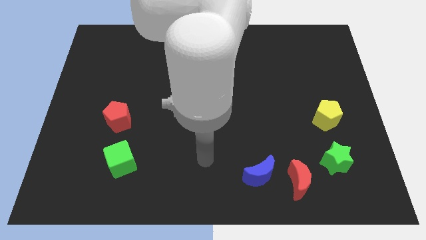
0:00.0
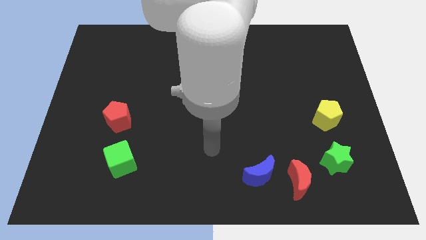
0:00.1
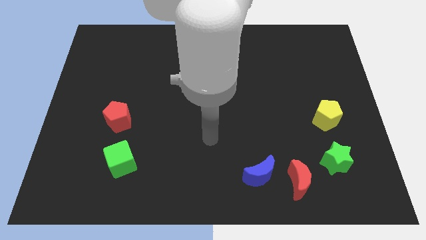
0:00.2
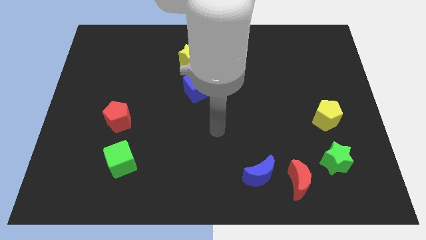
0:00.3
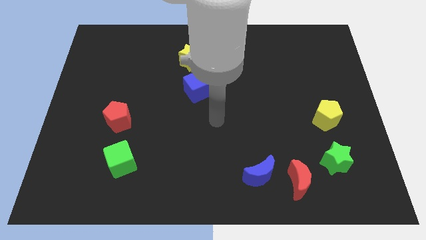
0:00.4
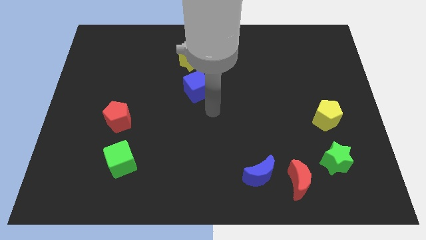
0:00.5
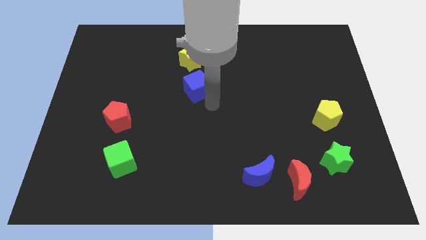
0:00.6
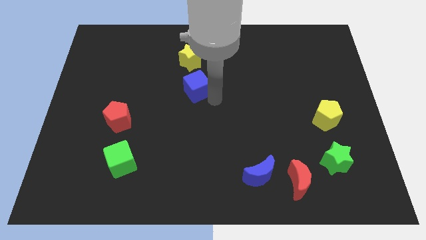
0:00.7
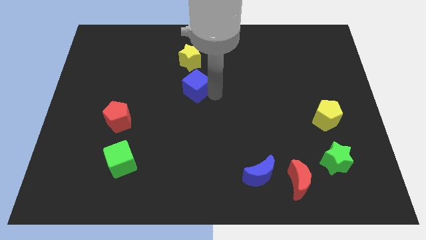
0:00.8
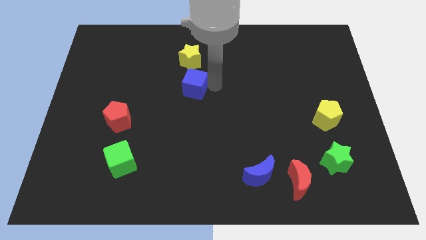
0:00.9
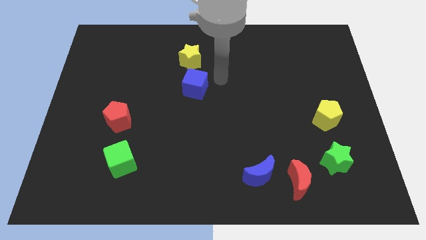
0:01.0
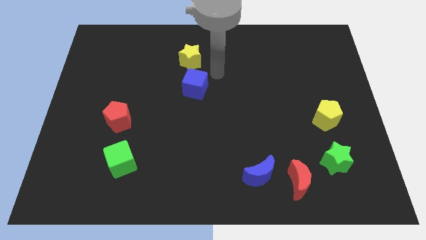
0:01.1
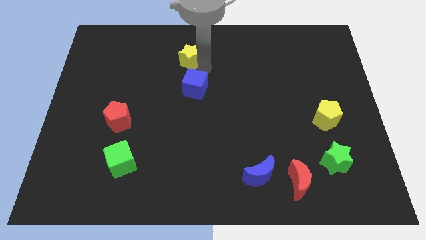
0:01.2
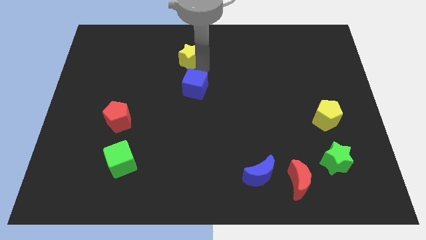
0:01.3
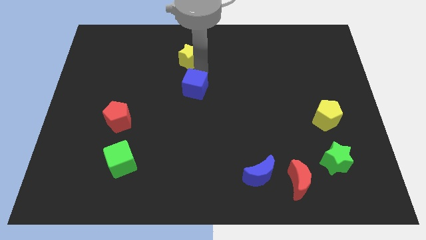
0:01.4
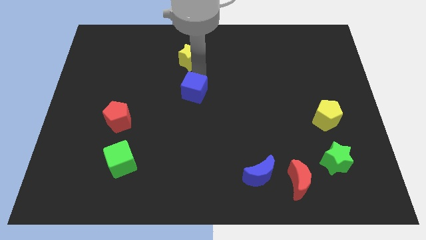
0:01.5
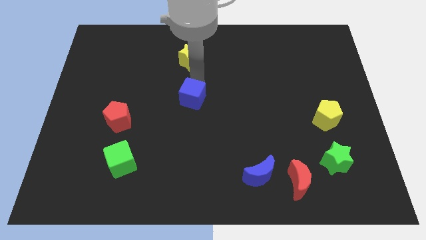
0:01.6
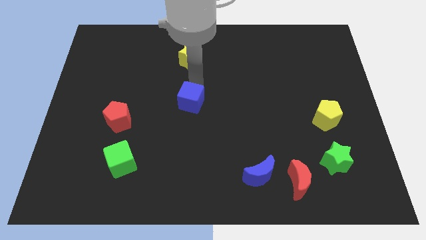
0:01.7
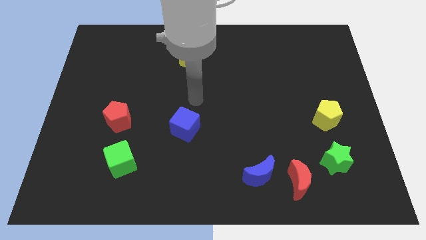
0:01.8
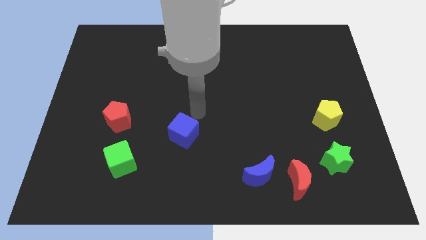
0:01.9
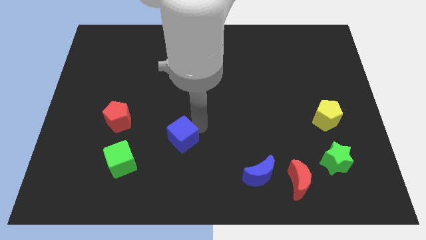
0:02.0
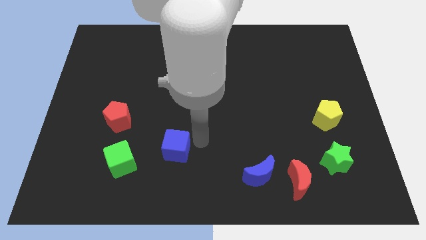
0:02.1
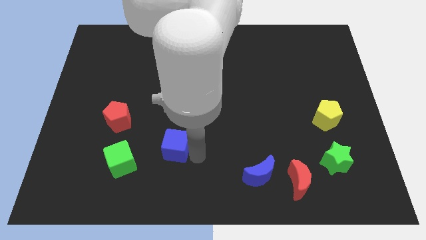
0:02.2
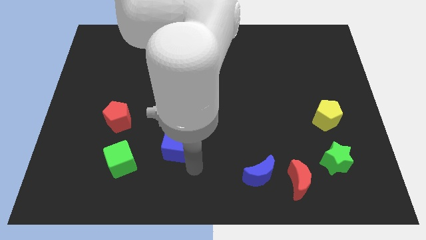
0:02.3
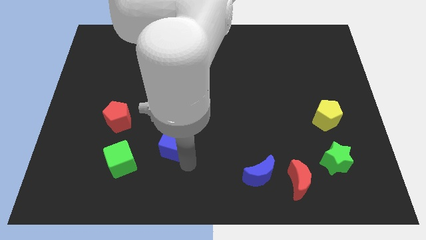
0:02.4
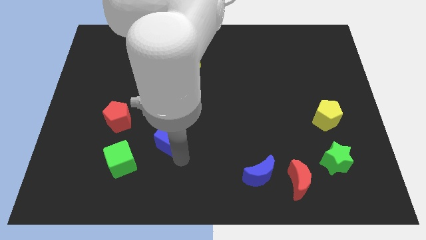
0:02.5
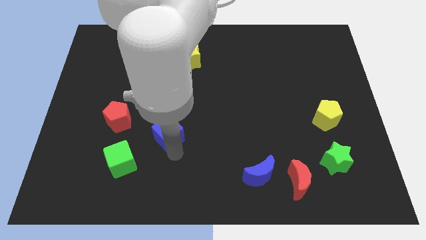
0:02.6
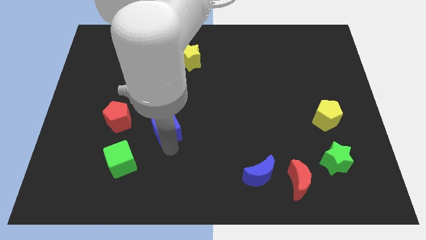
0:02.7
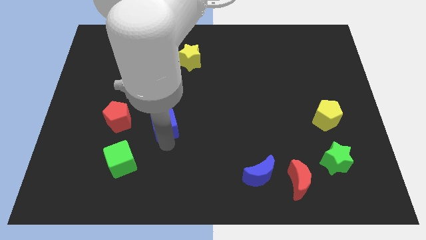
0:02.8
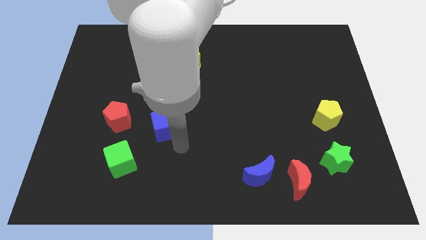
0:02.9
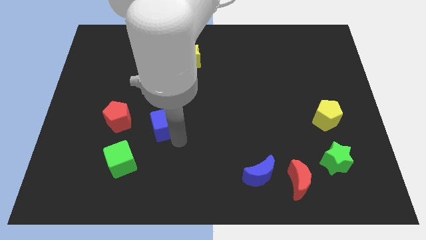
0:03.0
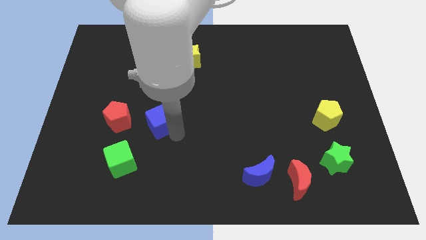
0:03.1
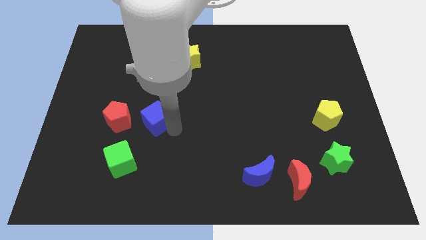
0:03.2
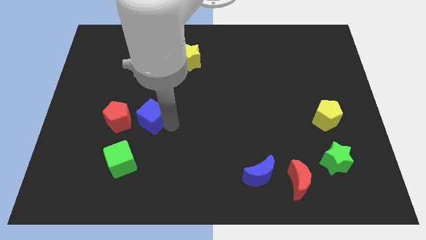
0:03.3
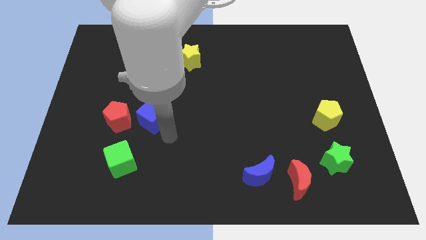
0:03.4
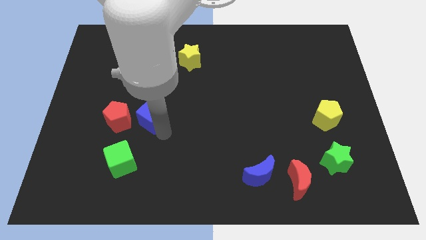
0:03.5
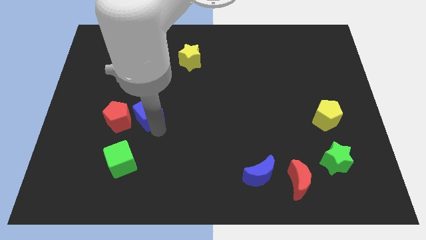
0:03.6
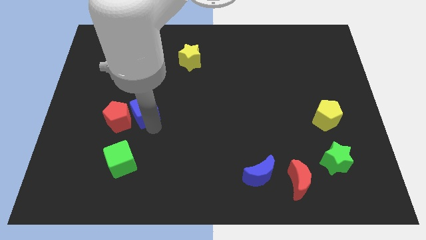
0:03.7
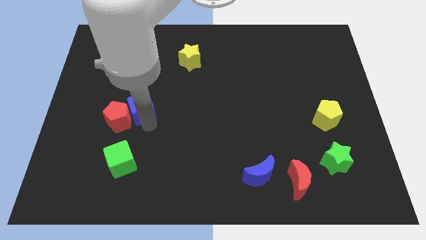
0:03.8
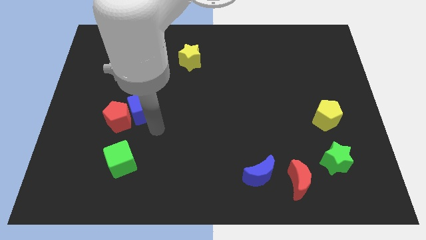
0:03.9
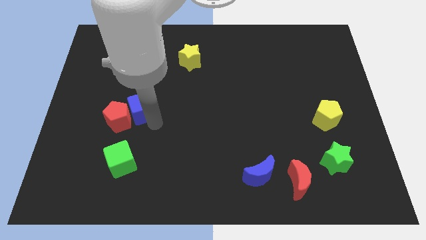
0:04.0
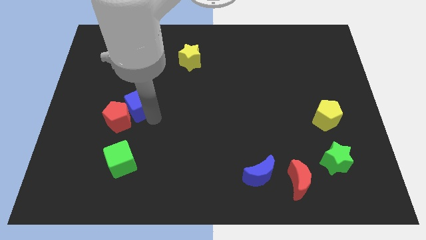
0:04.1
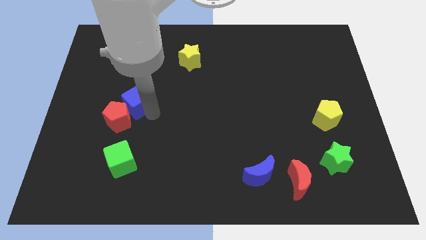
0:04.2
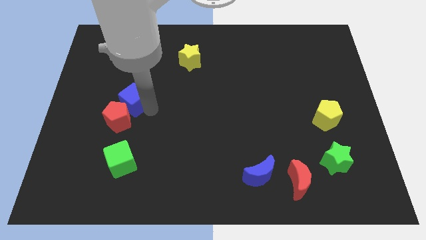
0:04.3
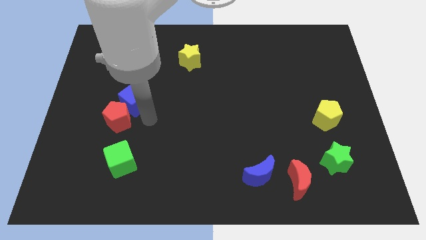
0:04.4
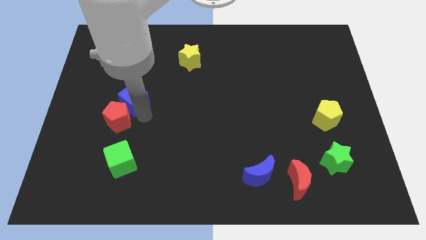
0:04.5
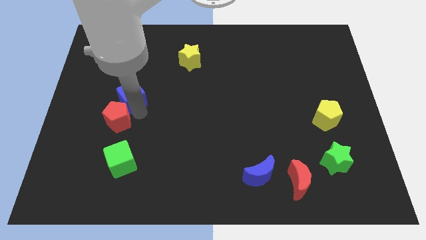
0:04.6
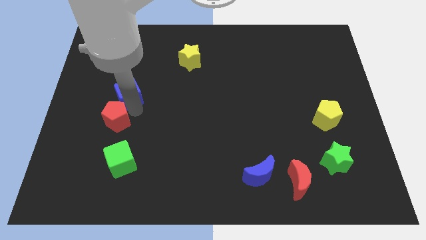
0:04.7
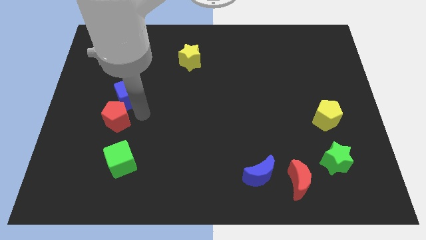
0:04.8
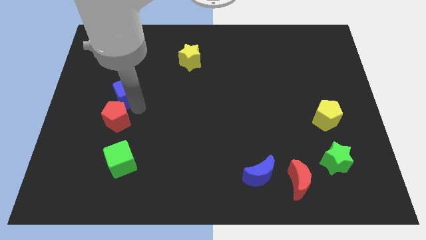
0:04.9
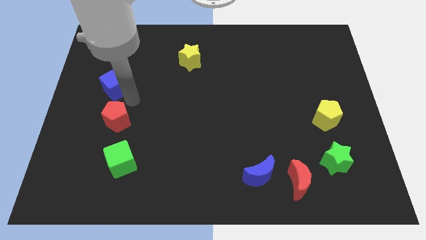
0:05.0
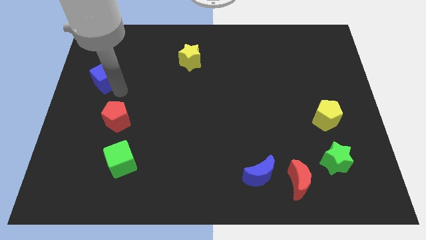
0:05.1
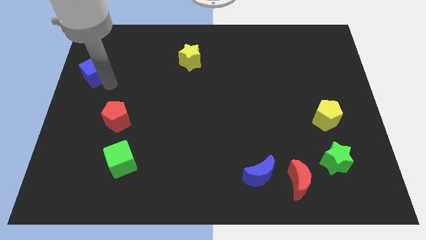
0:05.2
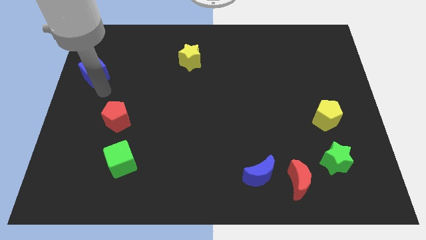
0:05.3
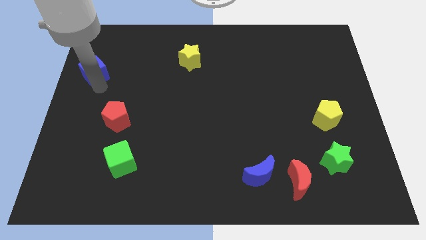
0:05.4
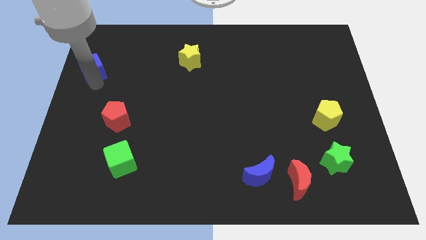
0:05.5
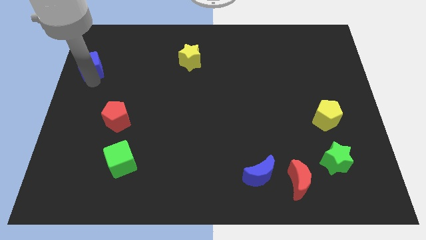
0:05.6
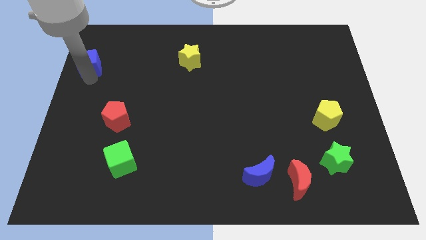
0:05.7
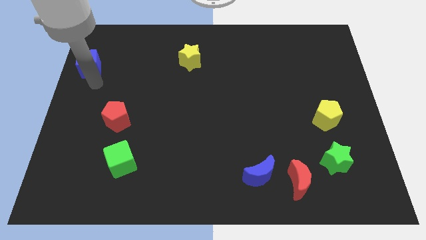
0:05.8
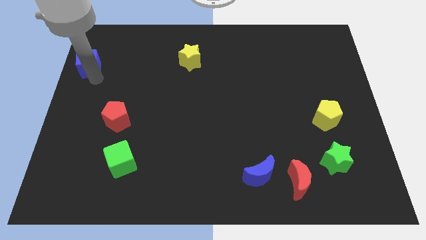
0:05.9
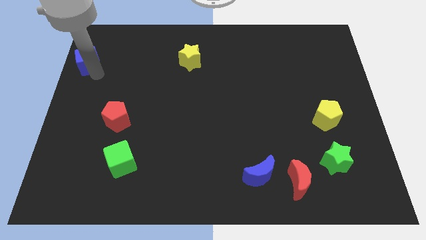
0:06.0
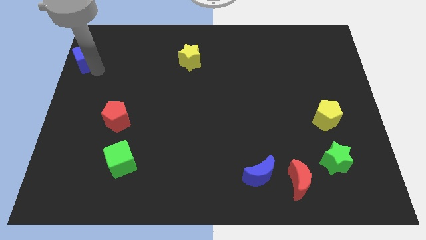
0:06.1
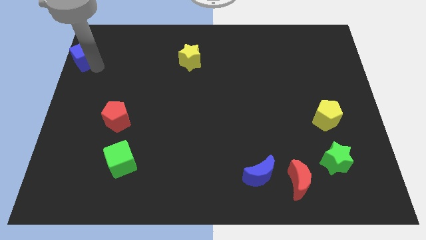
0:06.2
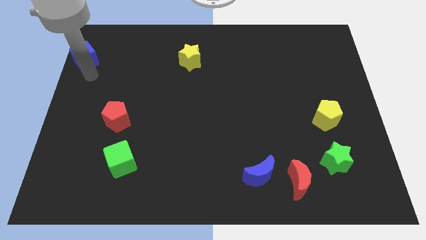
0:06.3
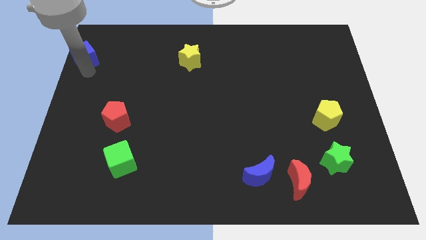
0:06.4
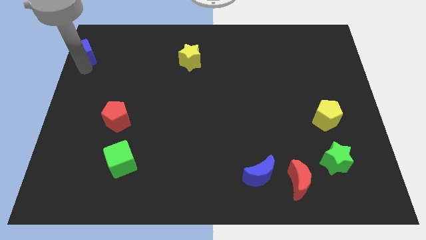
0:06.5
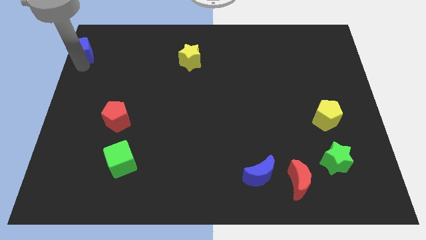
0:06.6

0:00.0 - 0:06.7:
slide the blue cube to the upper left corner
